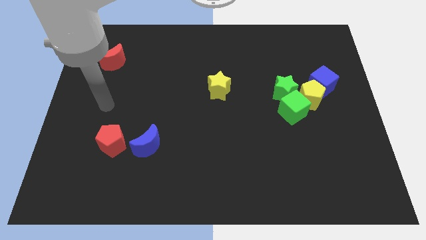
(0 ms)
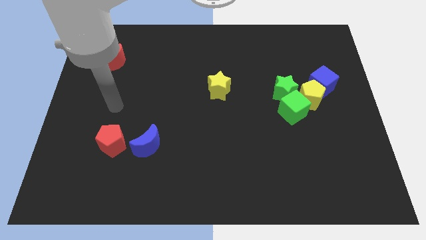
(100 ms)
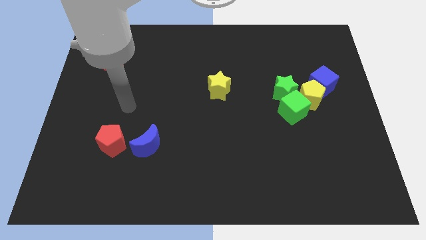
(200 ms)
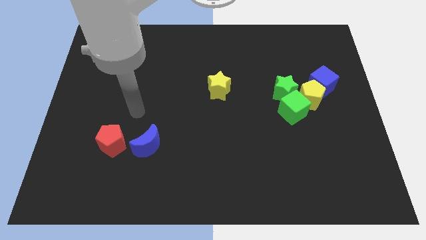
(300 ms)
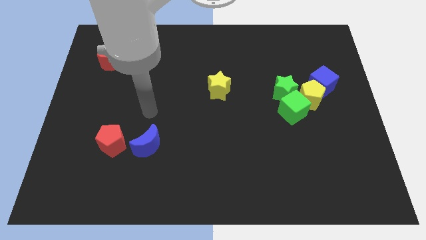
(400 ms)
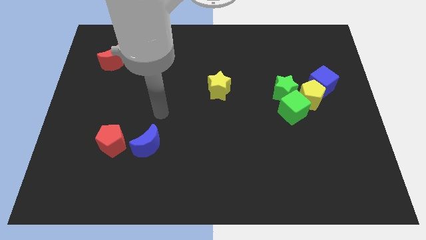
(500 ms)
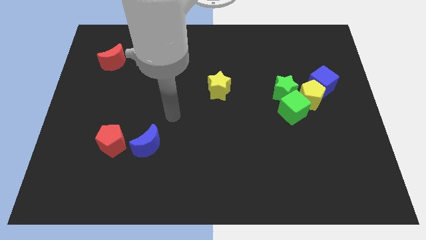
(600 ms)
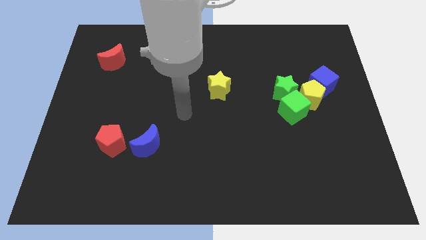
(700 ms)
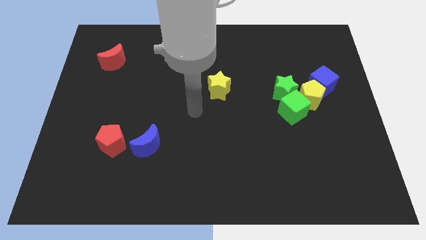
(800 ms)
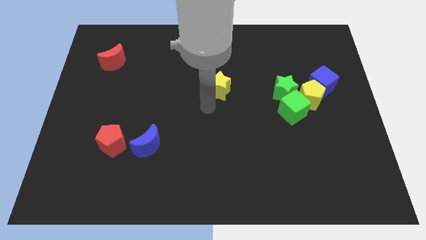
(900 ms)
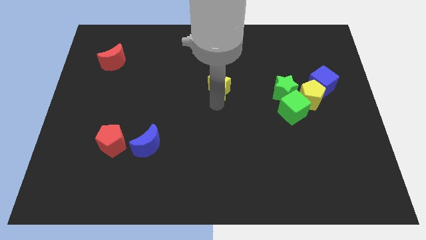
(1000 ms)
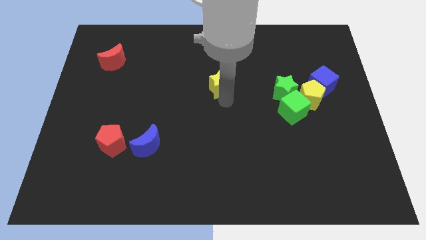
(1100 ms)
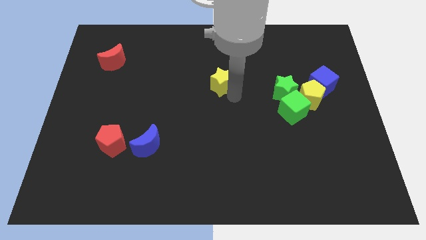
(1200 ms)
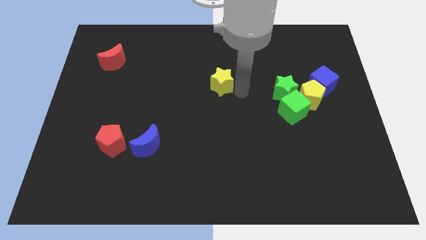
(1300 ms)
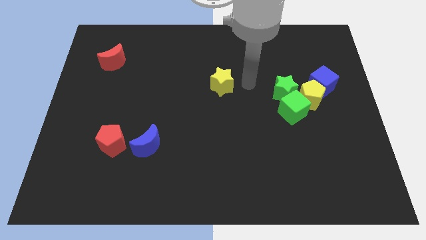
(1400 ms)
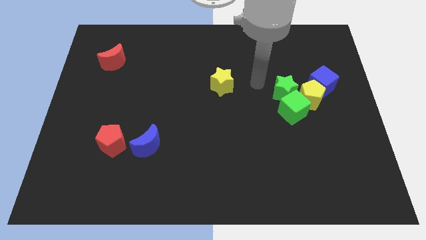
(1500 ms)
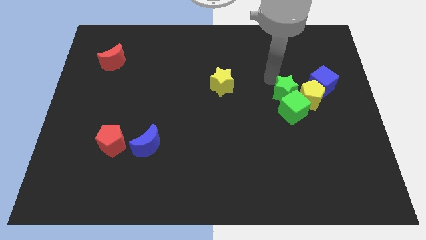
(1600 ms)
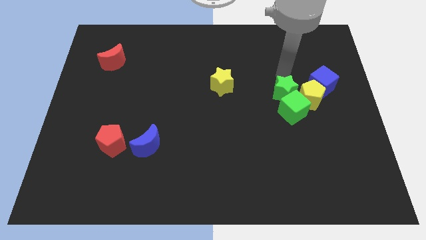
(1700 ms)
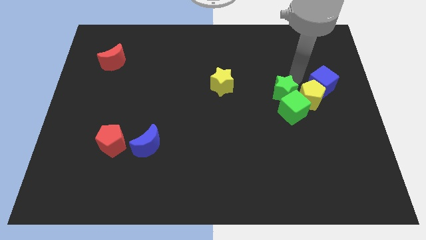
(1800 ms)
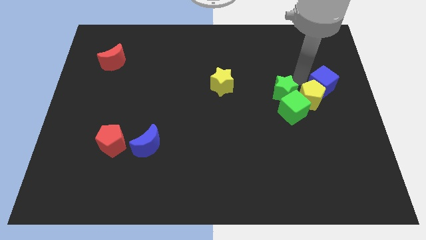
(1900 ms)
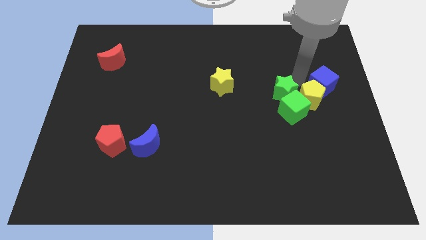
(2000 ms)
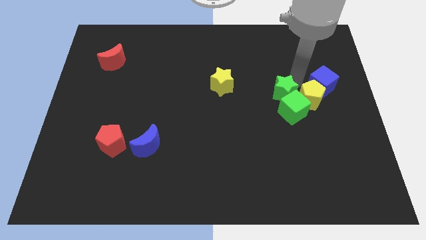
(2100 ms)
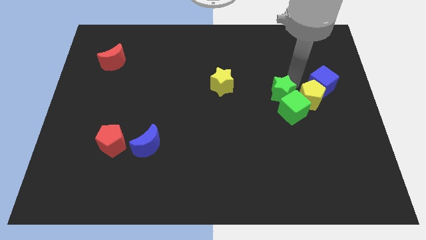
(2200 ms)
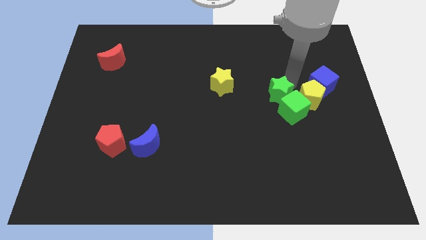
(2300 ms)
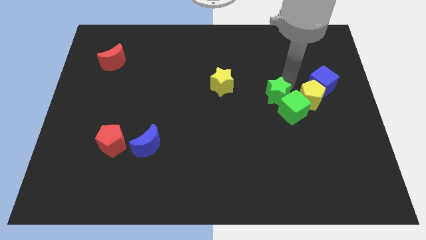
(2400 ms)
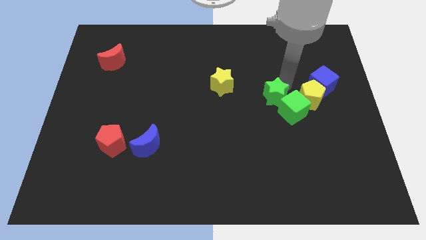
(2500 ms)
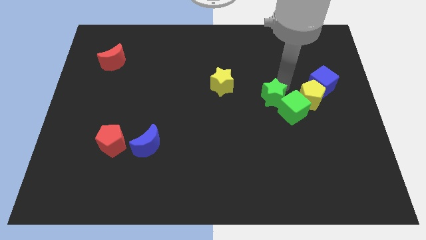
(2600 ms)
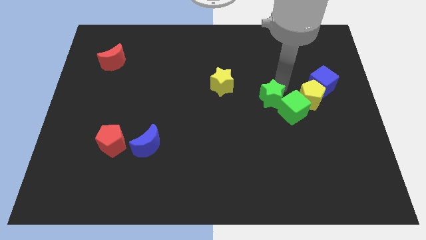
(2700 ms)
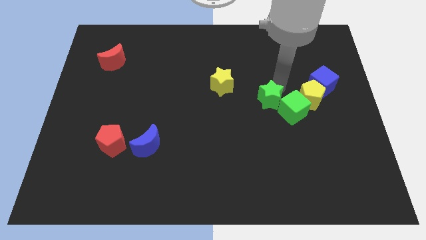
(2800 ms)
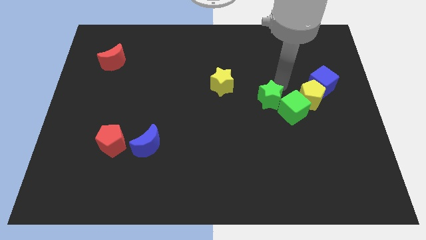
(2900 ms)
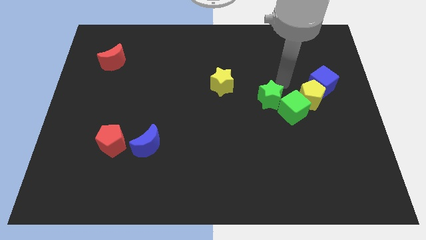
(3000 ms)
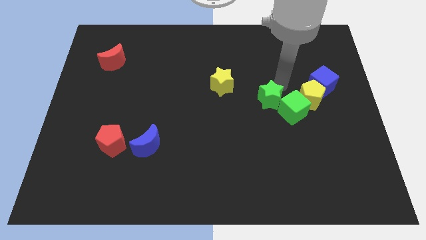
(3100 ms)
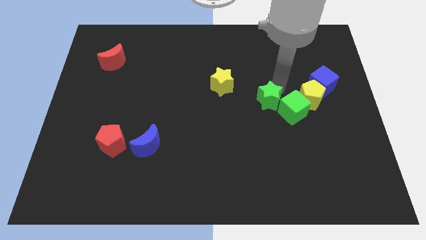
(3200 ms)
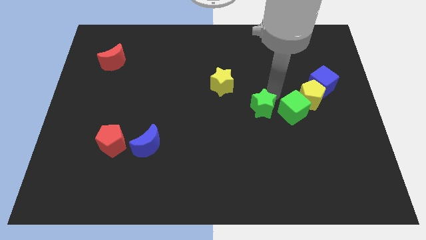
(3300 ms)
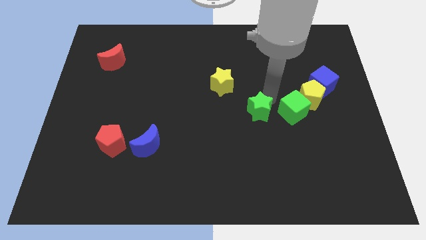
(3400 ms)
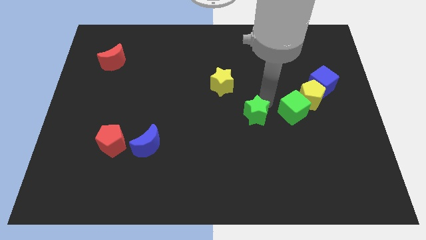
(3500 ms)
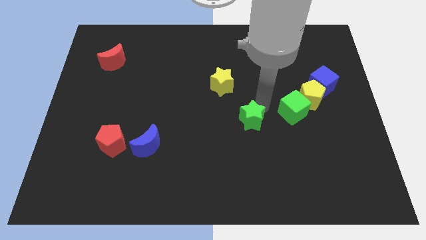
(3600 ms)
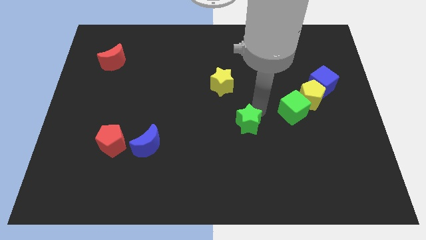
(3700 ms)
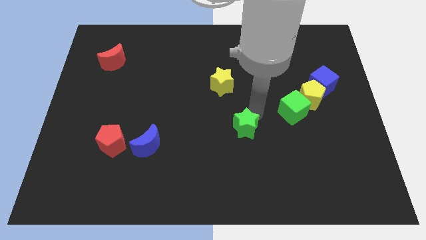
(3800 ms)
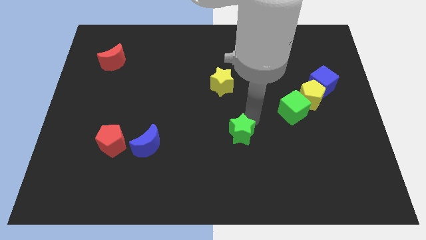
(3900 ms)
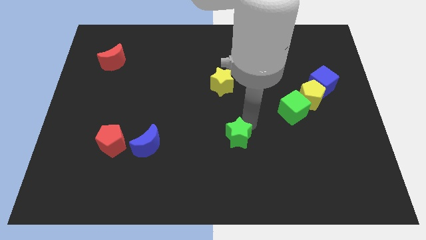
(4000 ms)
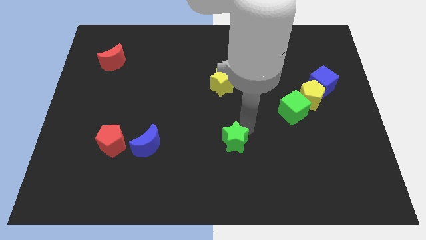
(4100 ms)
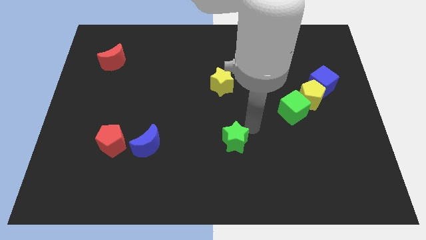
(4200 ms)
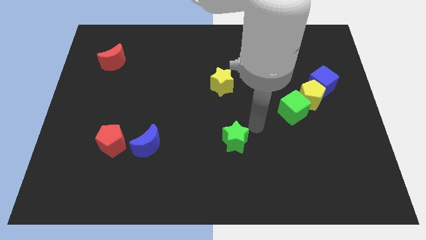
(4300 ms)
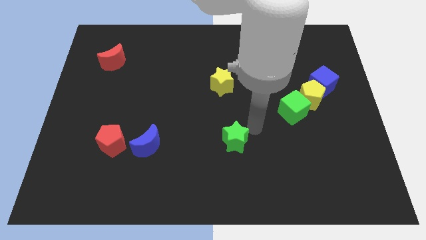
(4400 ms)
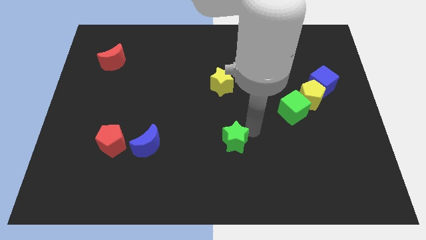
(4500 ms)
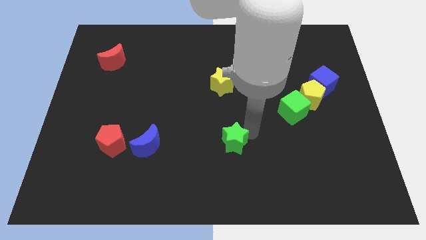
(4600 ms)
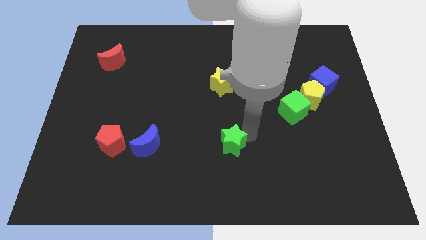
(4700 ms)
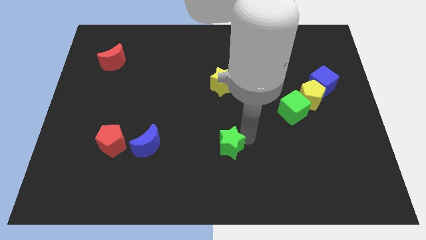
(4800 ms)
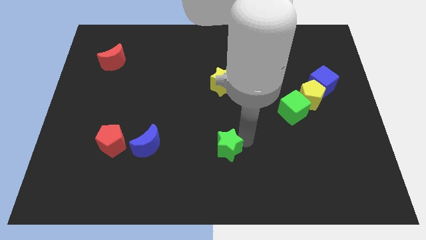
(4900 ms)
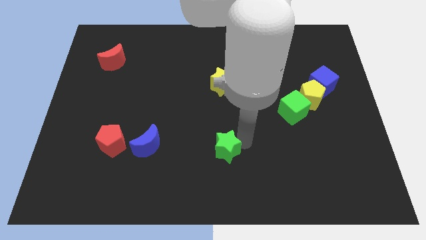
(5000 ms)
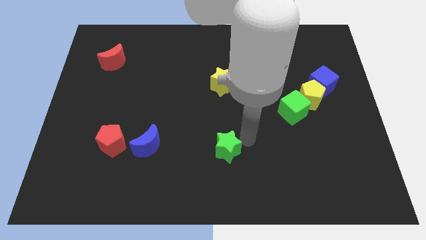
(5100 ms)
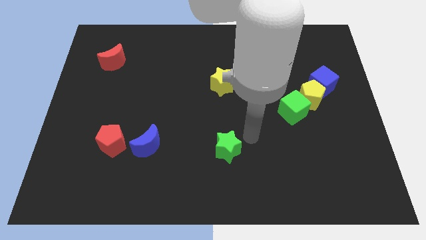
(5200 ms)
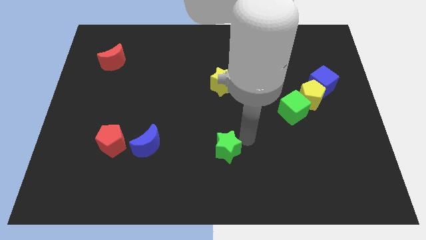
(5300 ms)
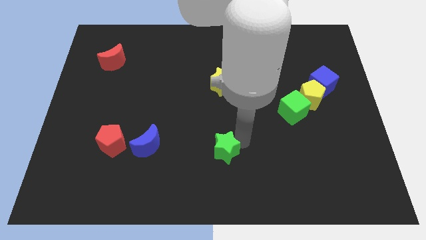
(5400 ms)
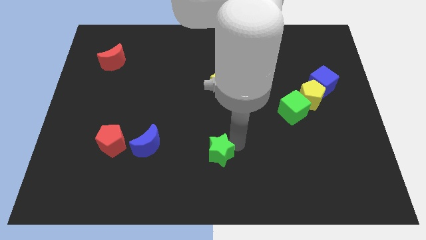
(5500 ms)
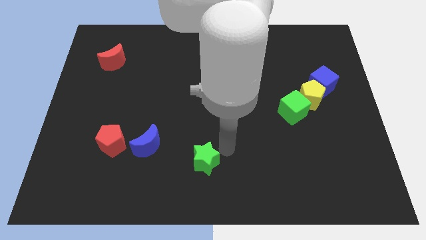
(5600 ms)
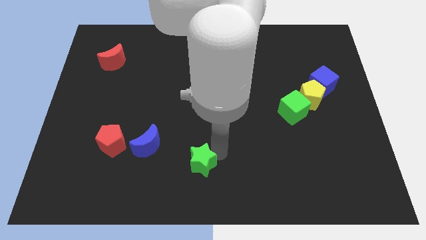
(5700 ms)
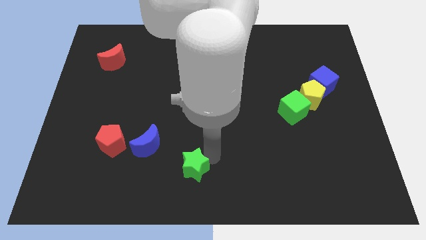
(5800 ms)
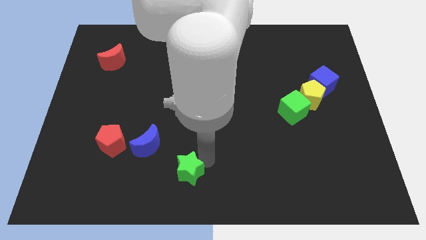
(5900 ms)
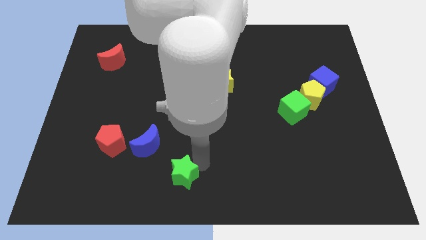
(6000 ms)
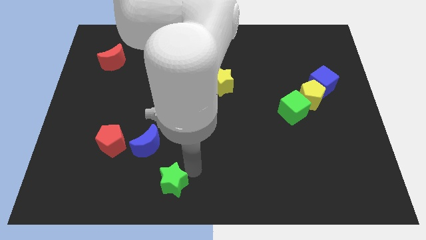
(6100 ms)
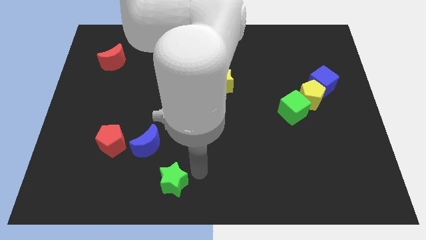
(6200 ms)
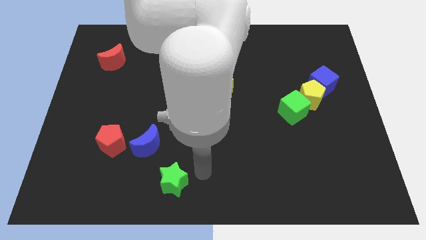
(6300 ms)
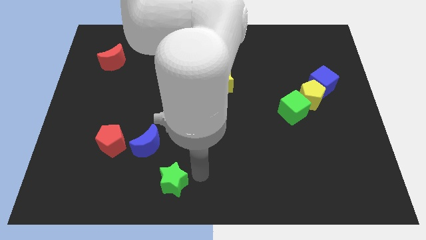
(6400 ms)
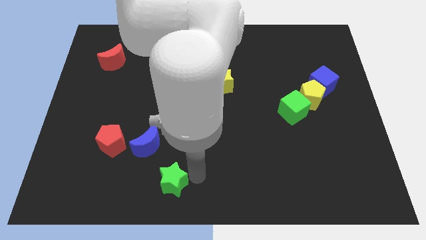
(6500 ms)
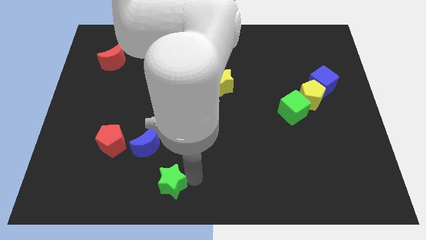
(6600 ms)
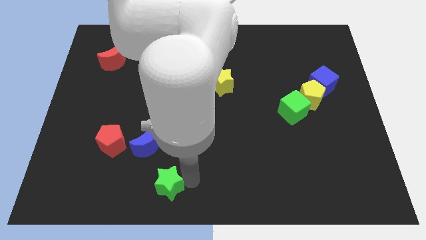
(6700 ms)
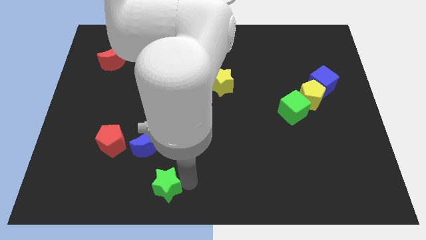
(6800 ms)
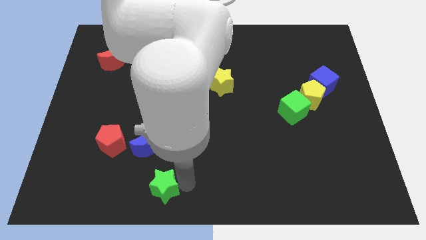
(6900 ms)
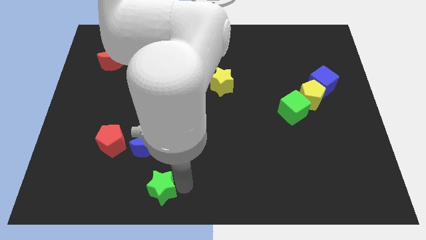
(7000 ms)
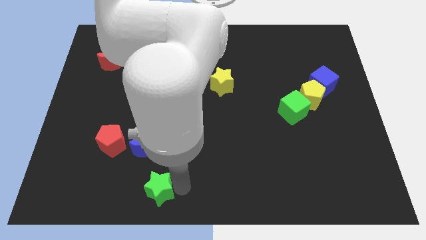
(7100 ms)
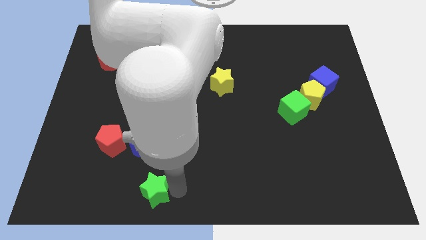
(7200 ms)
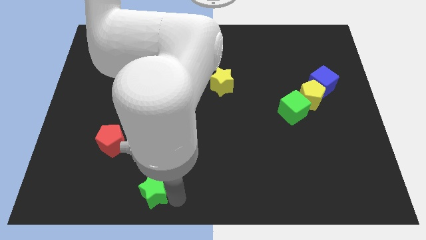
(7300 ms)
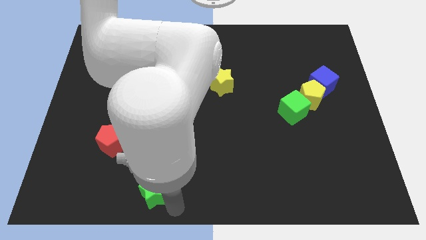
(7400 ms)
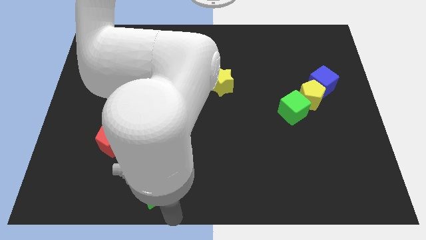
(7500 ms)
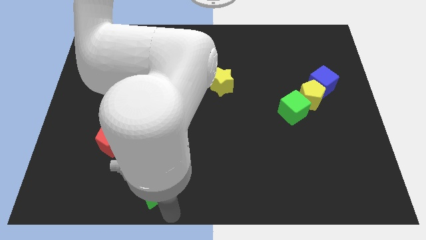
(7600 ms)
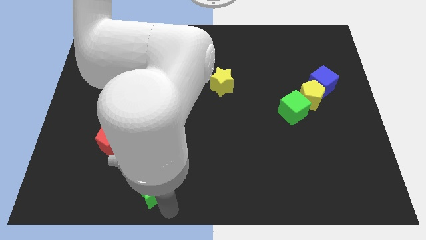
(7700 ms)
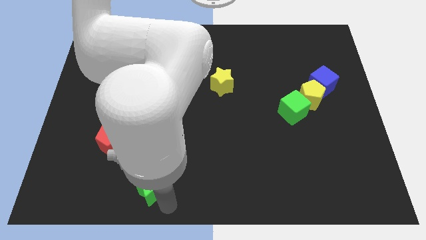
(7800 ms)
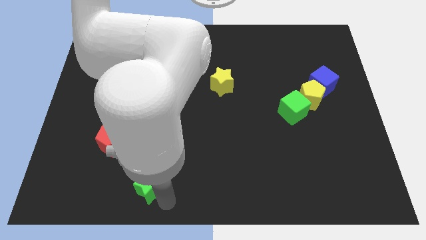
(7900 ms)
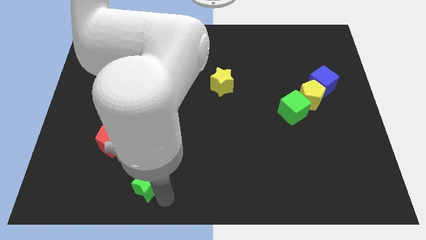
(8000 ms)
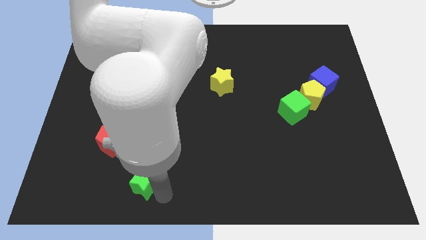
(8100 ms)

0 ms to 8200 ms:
move the green star diagonally down and to the right of the red pentagon

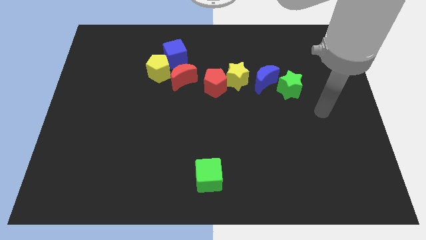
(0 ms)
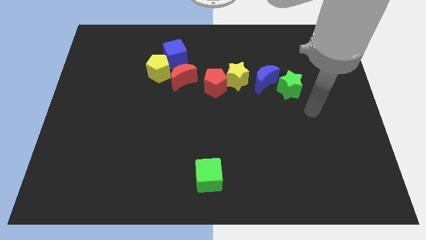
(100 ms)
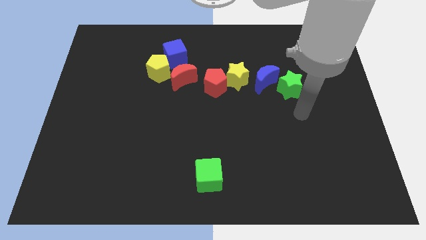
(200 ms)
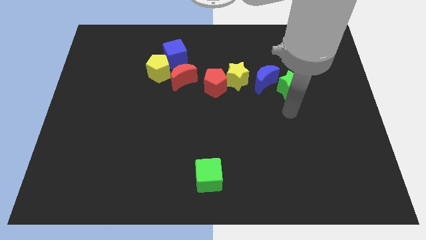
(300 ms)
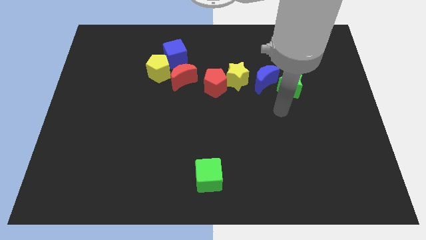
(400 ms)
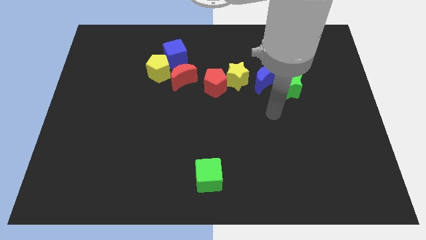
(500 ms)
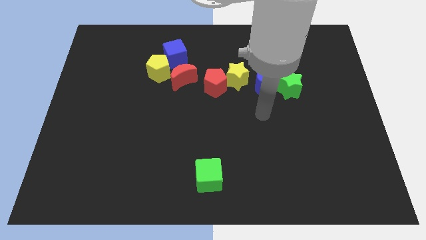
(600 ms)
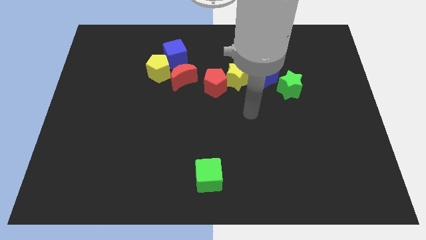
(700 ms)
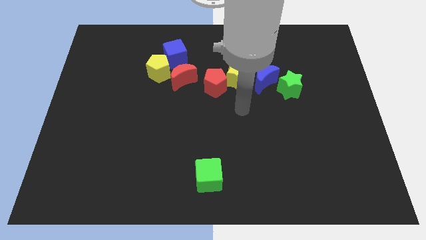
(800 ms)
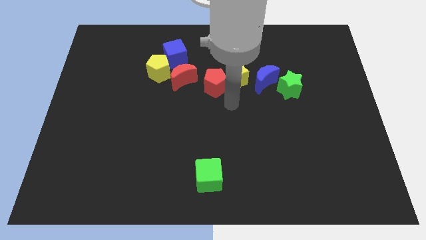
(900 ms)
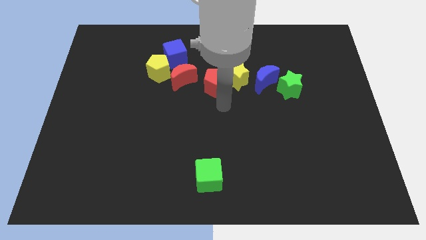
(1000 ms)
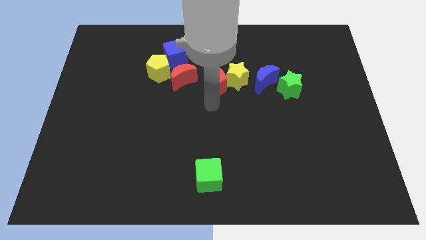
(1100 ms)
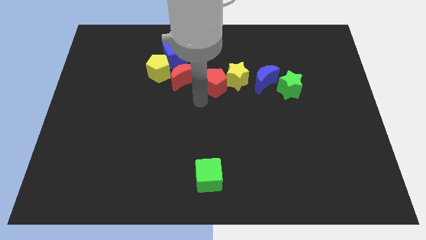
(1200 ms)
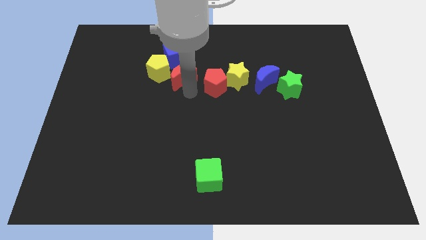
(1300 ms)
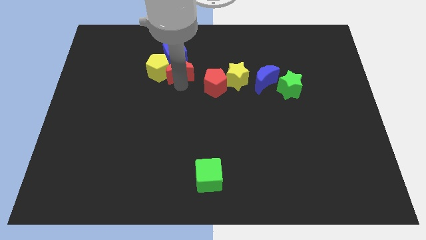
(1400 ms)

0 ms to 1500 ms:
slide the yellow pentagon just left of the blue cube
